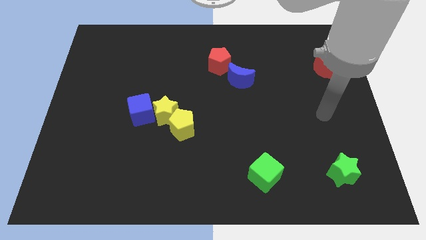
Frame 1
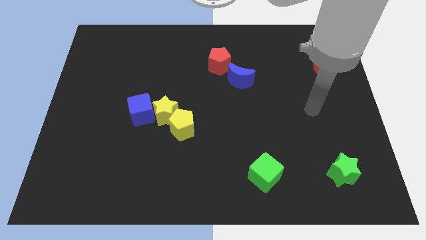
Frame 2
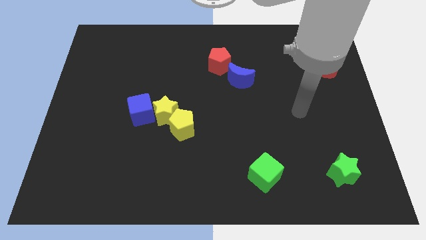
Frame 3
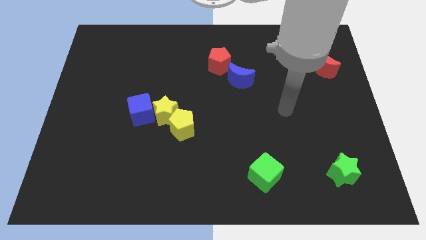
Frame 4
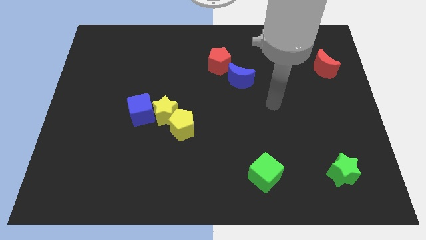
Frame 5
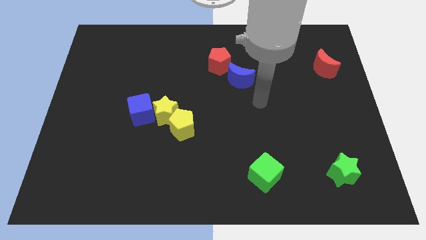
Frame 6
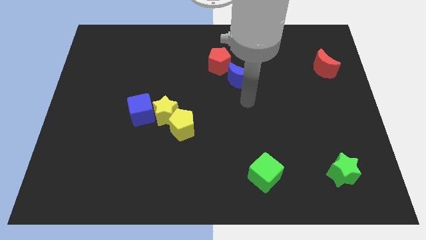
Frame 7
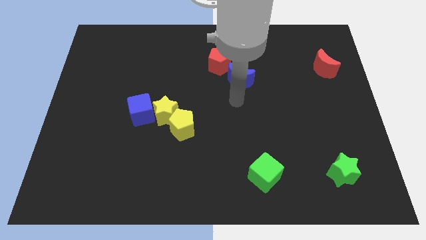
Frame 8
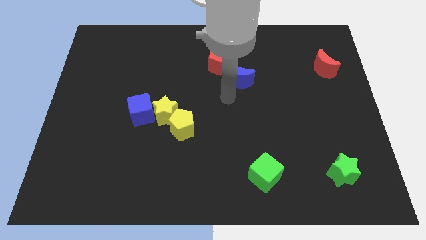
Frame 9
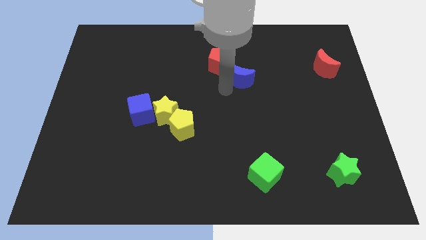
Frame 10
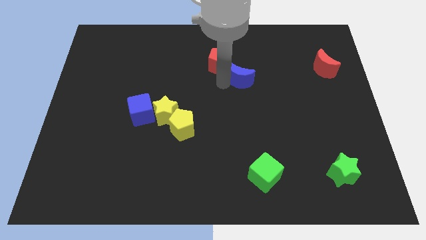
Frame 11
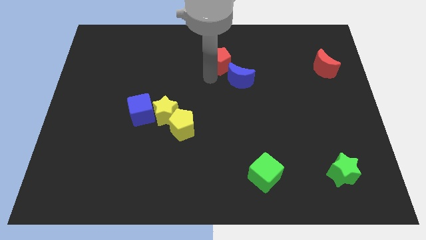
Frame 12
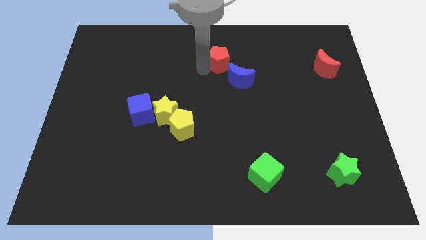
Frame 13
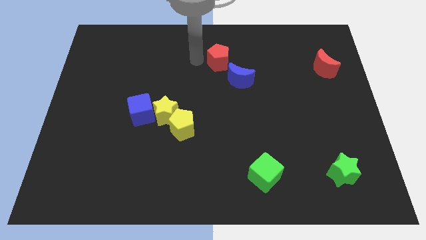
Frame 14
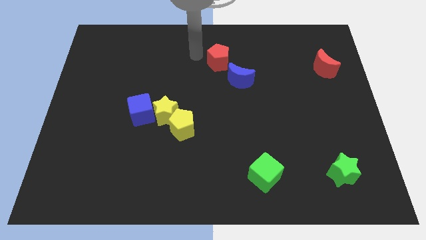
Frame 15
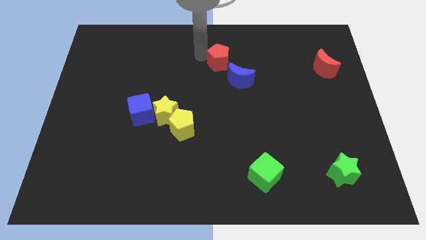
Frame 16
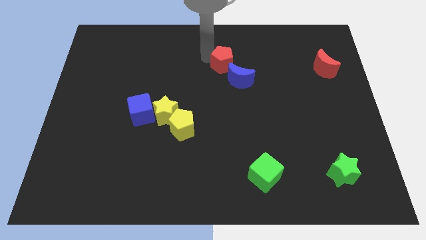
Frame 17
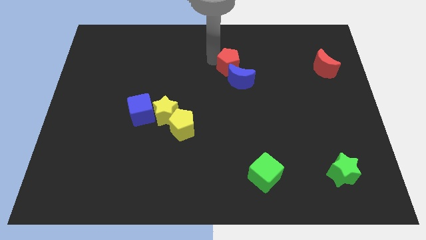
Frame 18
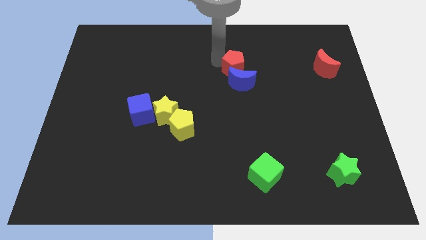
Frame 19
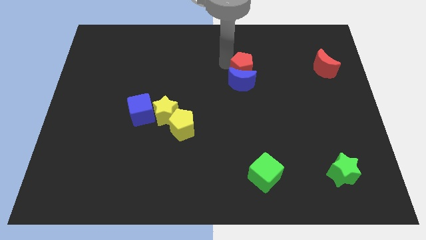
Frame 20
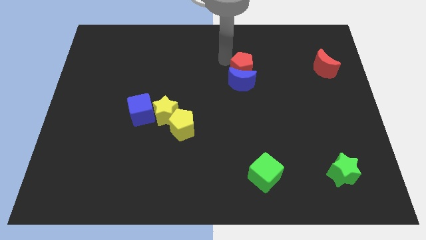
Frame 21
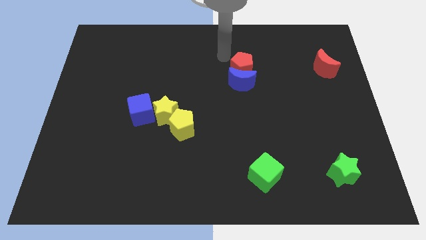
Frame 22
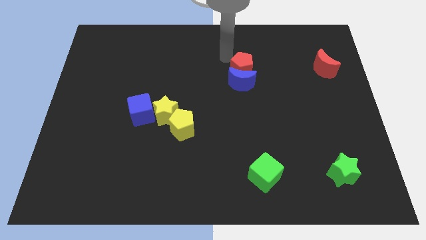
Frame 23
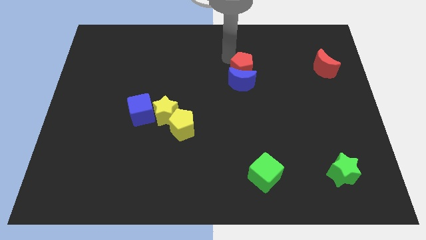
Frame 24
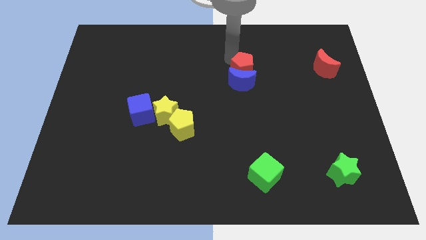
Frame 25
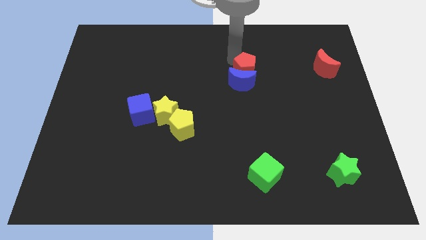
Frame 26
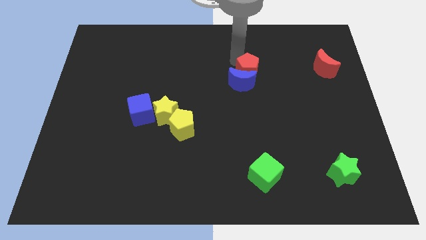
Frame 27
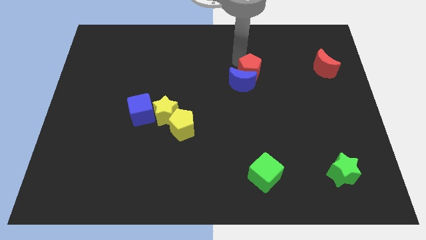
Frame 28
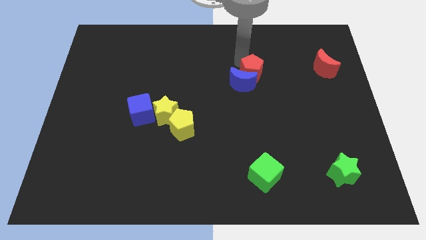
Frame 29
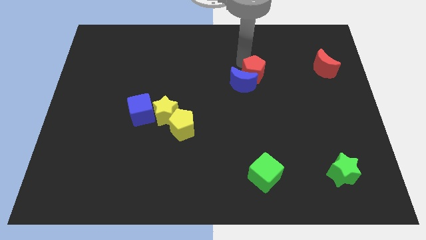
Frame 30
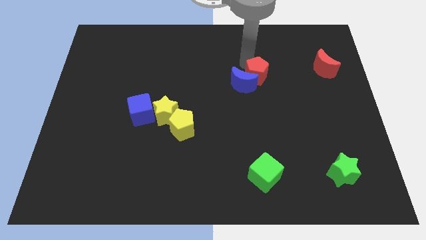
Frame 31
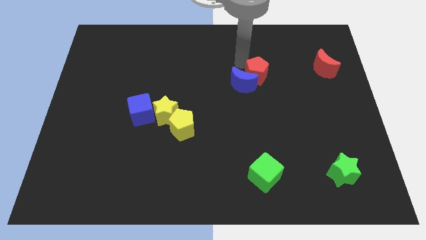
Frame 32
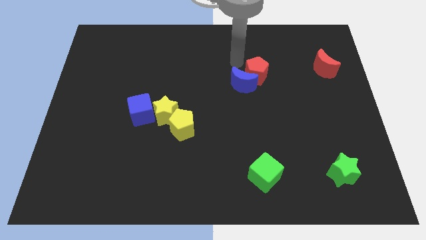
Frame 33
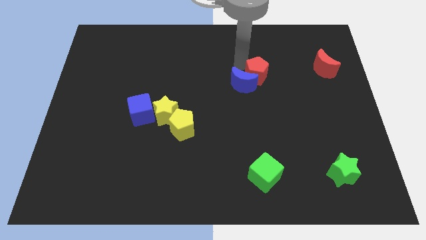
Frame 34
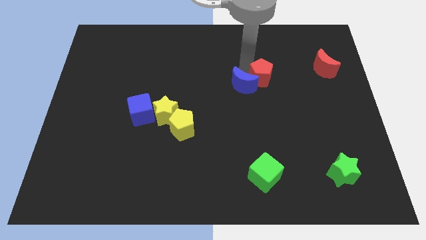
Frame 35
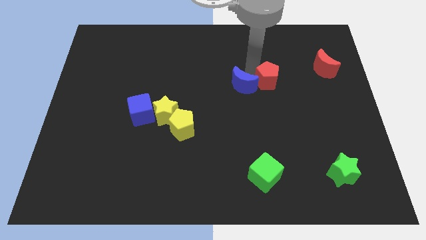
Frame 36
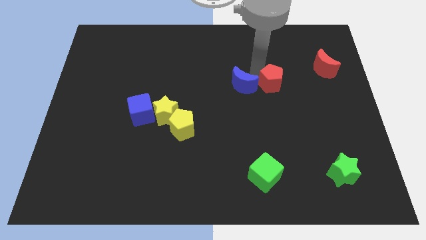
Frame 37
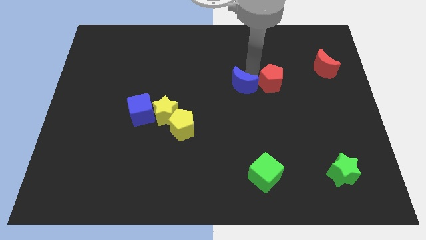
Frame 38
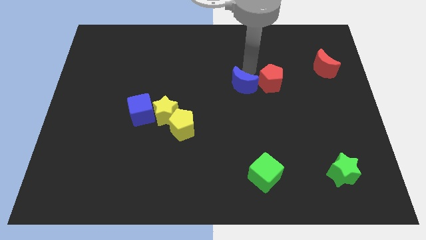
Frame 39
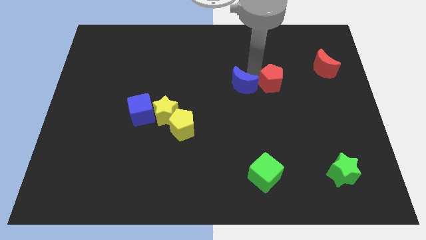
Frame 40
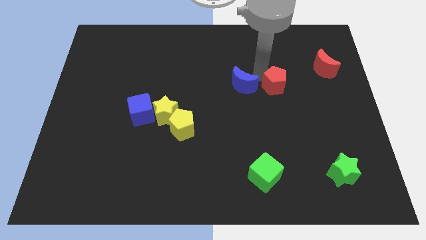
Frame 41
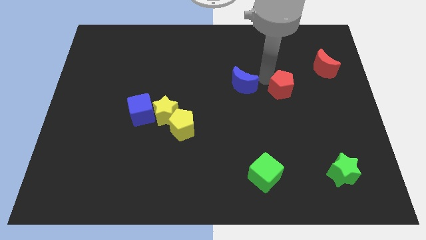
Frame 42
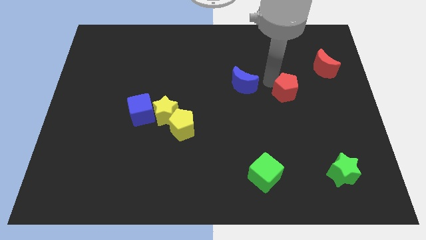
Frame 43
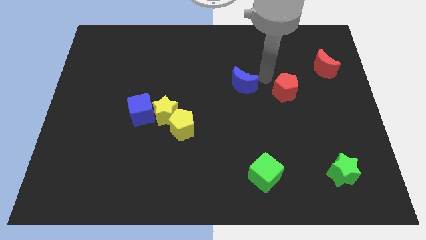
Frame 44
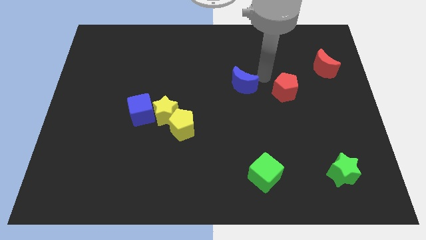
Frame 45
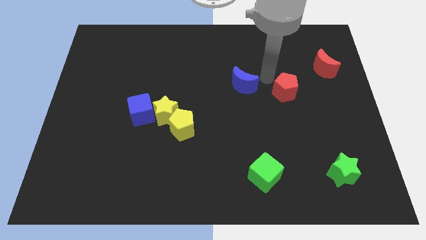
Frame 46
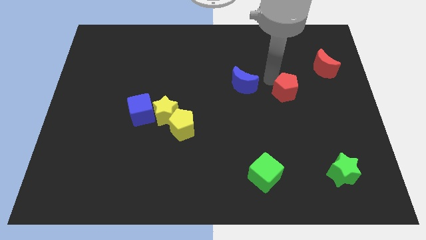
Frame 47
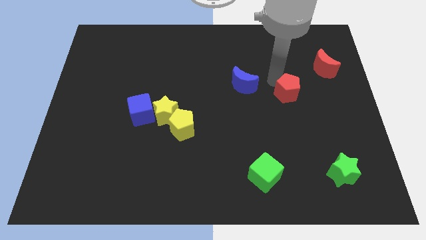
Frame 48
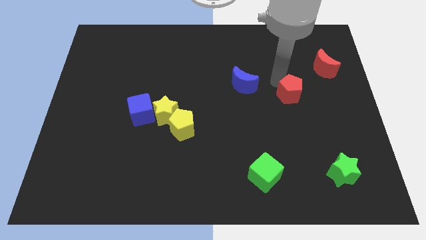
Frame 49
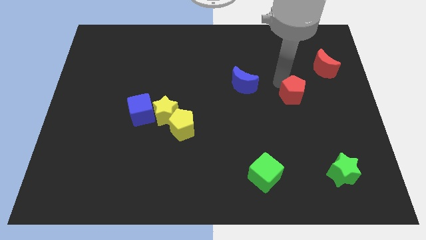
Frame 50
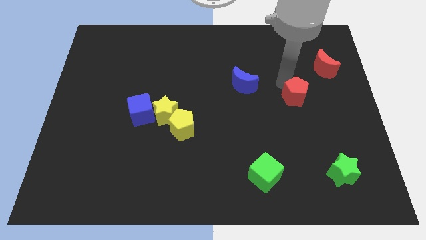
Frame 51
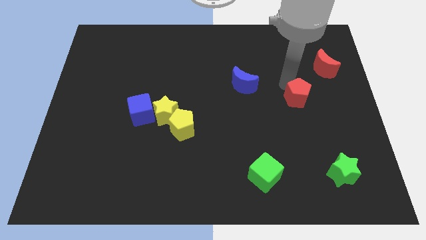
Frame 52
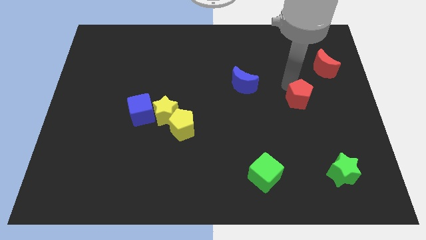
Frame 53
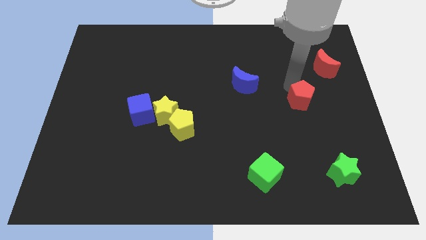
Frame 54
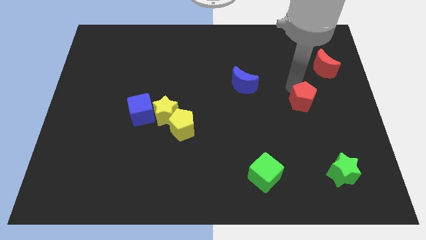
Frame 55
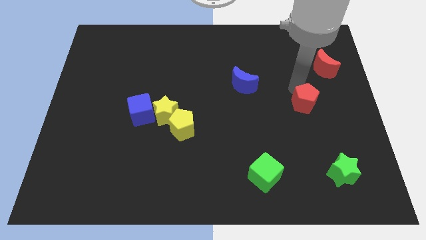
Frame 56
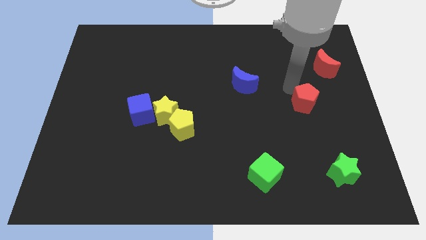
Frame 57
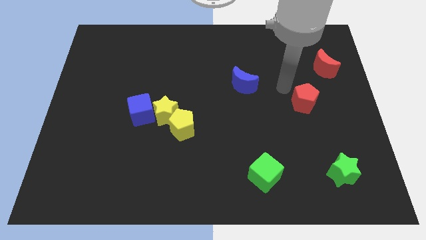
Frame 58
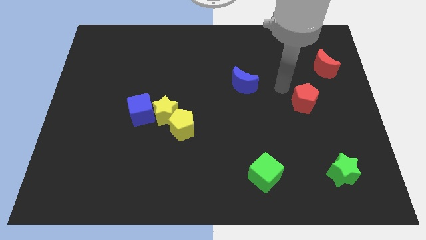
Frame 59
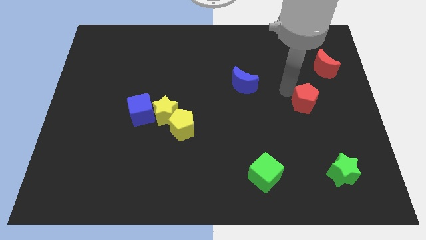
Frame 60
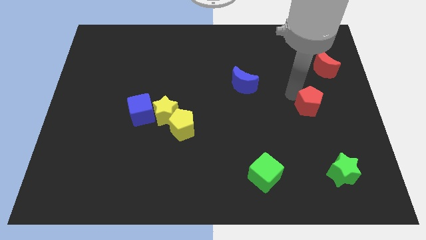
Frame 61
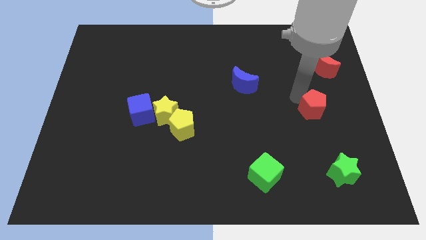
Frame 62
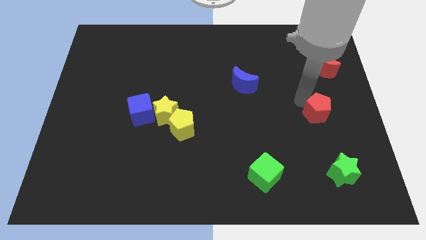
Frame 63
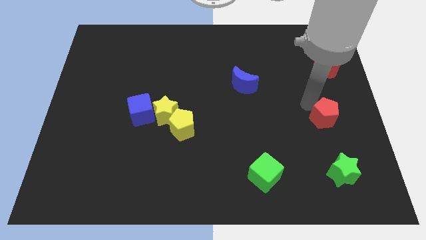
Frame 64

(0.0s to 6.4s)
move the red pentagon to the top side of the green star

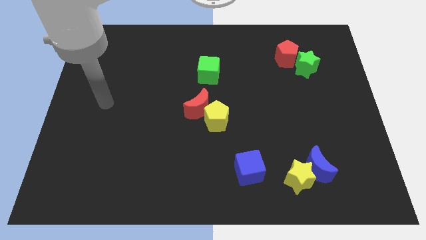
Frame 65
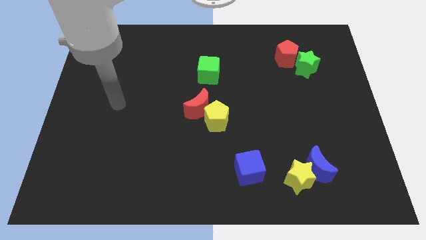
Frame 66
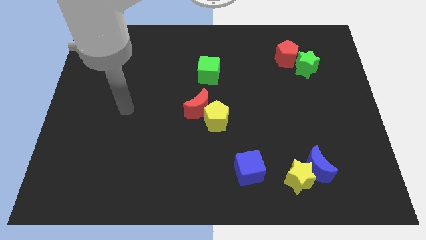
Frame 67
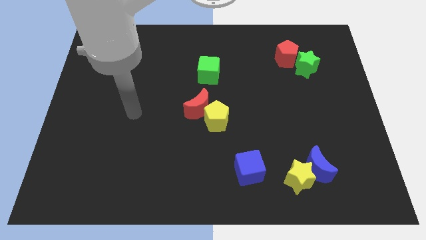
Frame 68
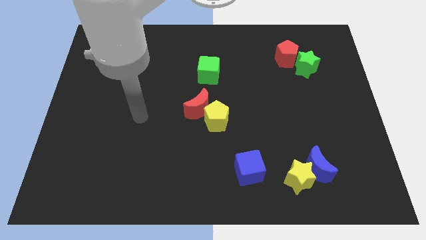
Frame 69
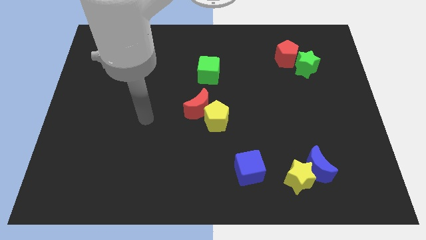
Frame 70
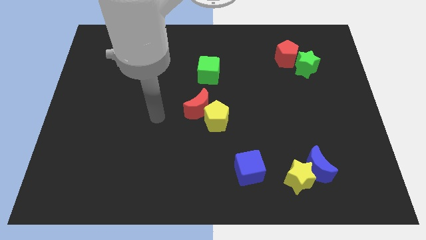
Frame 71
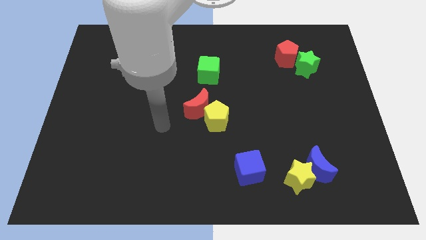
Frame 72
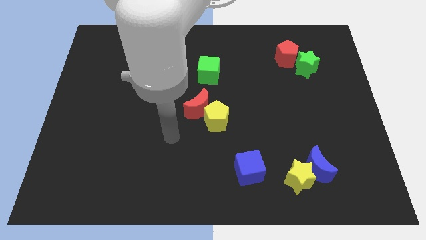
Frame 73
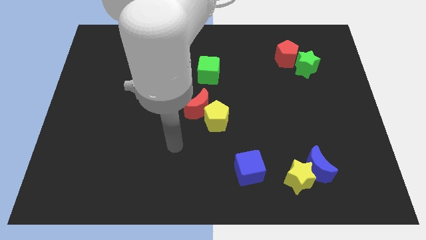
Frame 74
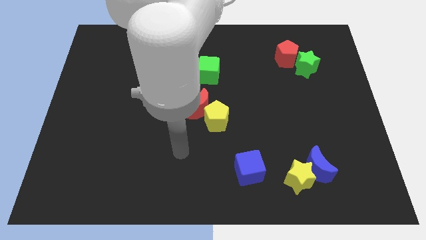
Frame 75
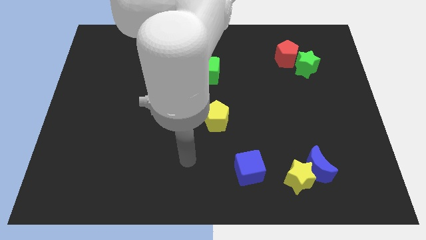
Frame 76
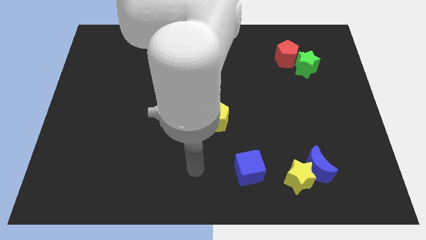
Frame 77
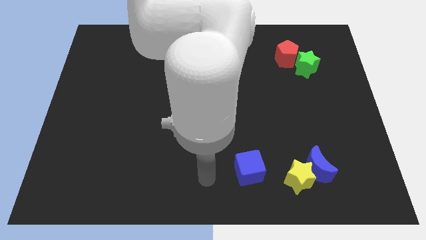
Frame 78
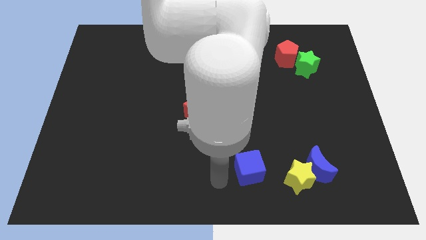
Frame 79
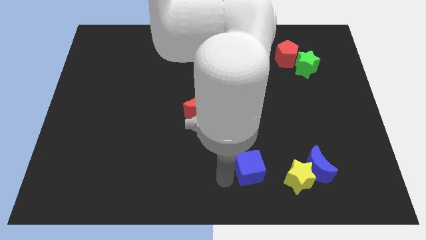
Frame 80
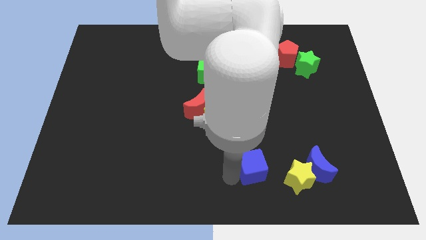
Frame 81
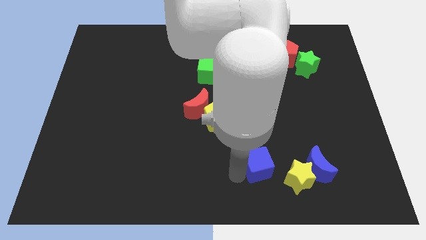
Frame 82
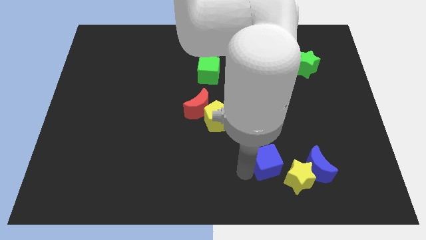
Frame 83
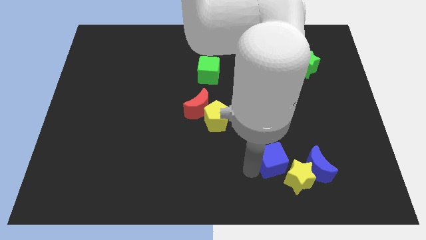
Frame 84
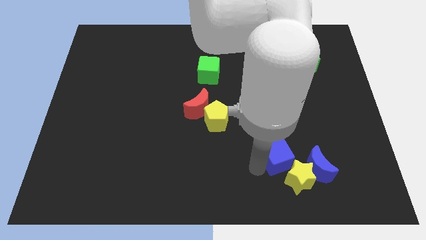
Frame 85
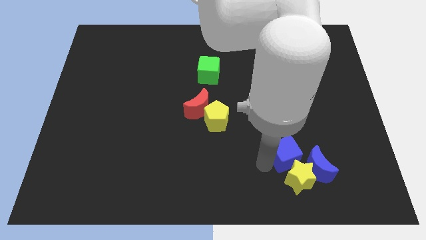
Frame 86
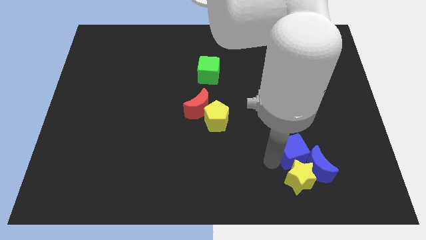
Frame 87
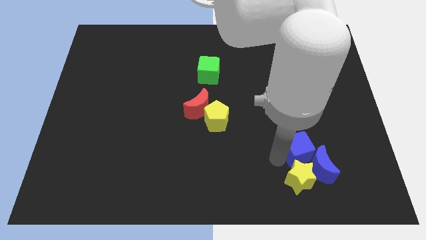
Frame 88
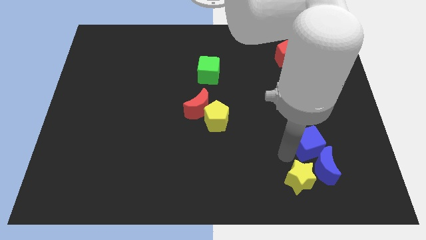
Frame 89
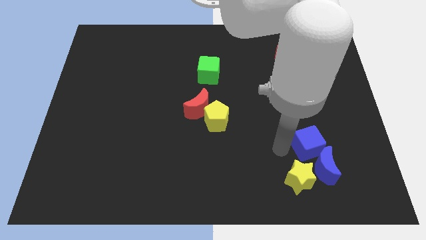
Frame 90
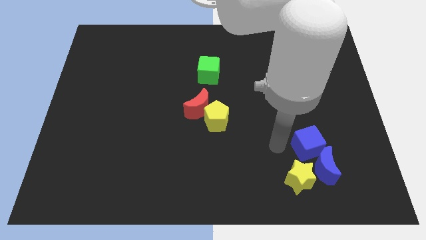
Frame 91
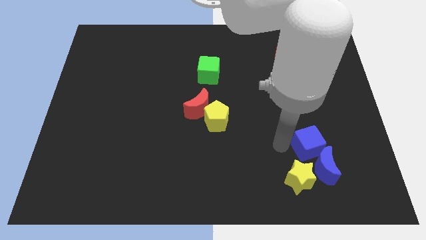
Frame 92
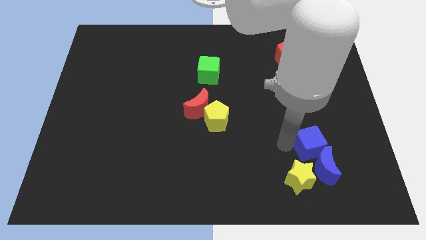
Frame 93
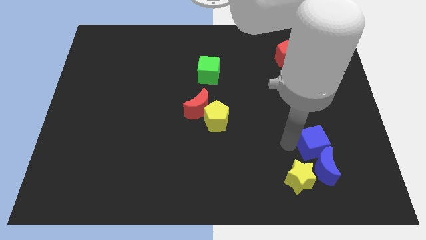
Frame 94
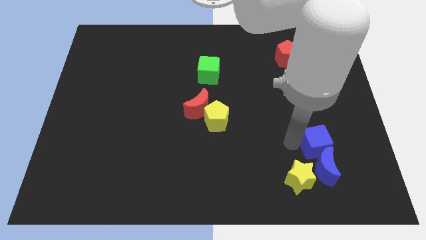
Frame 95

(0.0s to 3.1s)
put the blue cube diagonally up and to the right of the blue moon
